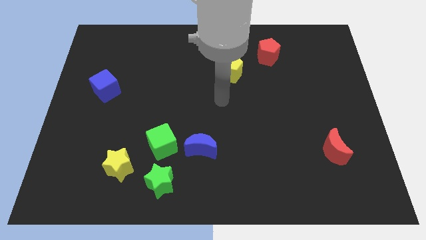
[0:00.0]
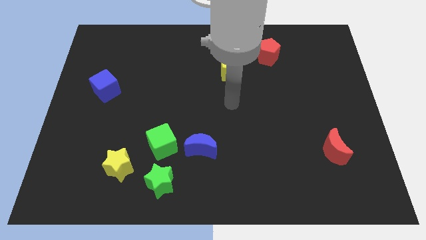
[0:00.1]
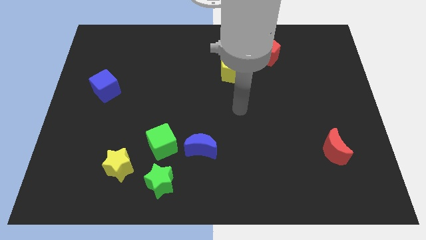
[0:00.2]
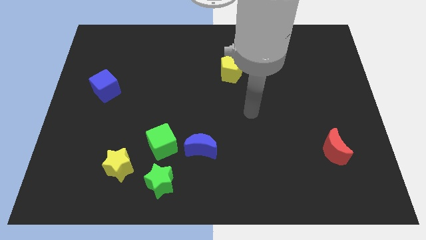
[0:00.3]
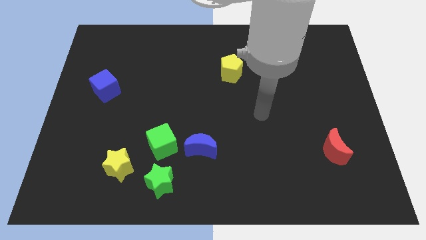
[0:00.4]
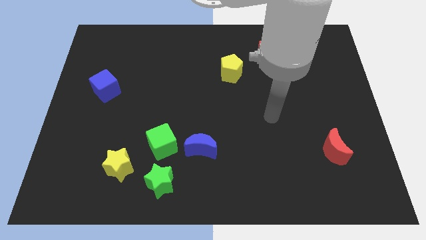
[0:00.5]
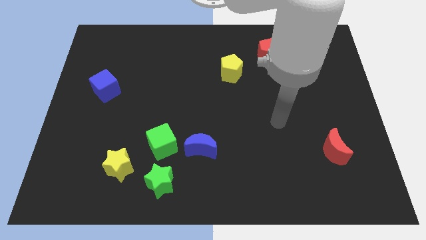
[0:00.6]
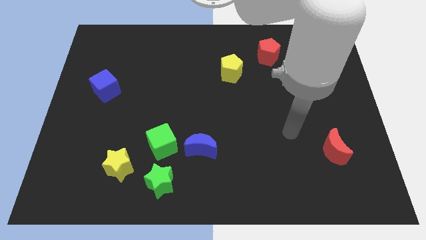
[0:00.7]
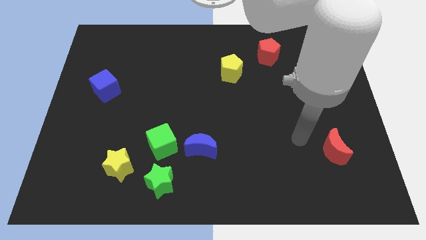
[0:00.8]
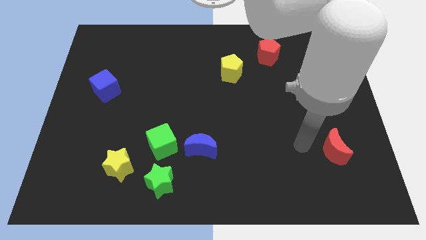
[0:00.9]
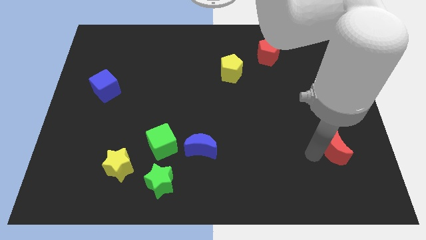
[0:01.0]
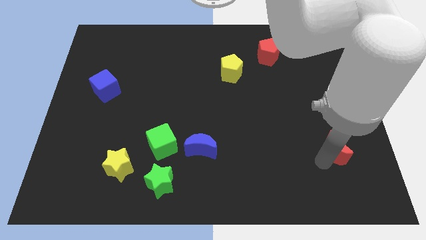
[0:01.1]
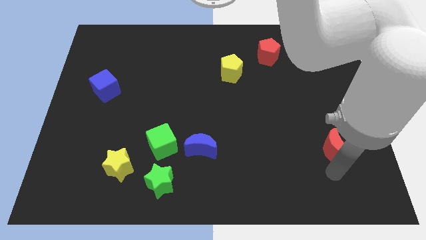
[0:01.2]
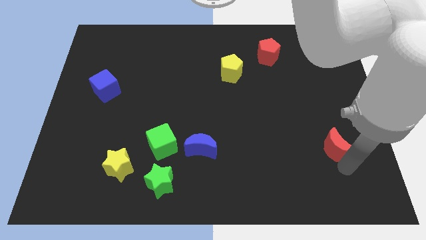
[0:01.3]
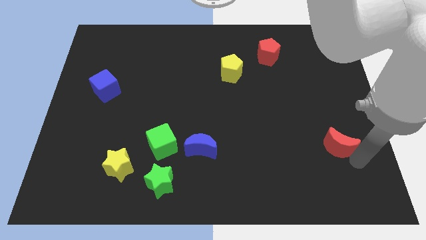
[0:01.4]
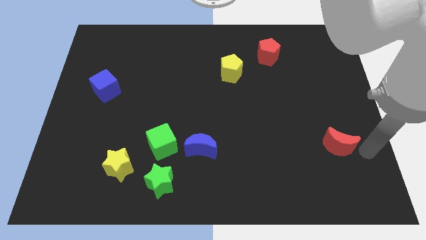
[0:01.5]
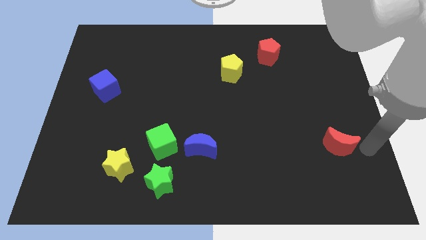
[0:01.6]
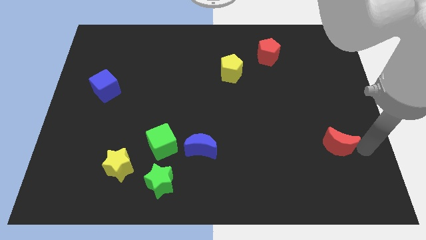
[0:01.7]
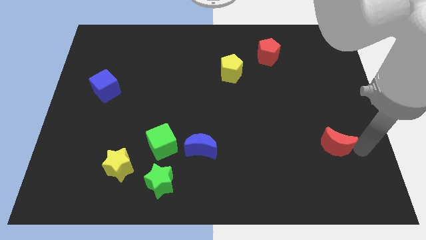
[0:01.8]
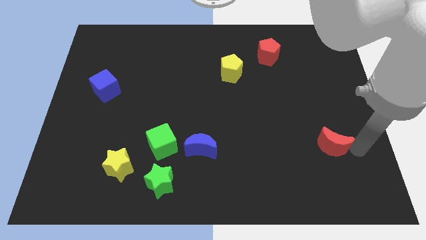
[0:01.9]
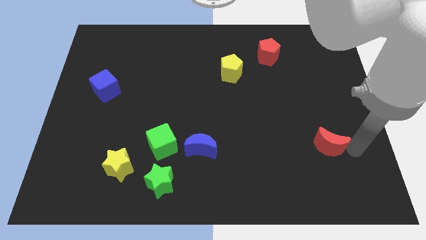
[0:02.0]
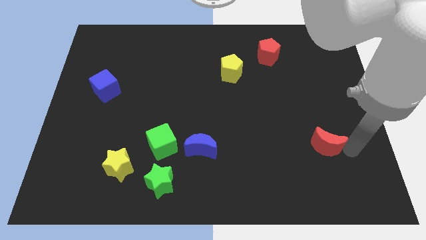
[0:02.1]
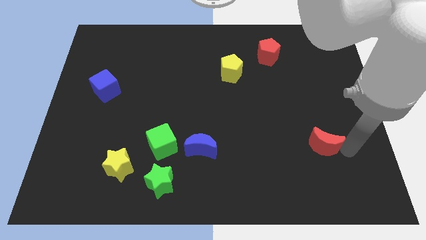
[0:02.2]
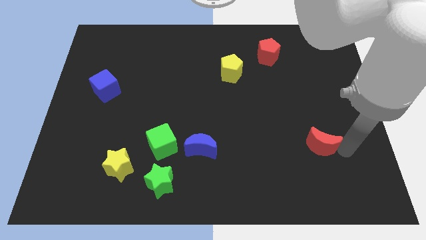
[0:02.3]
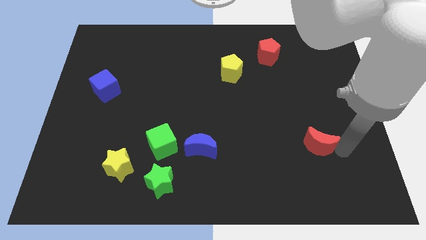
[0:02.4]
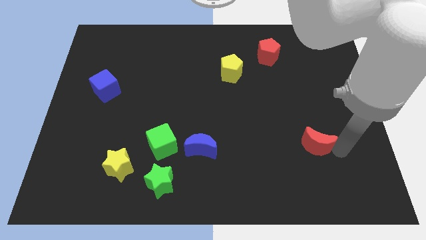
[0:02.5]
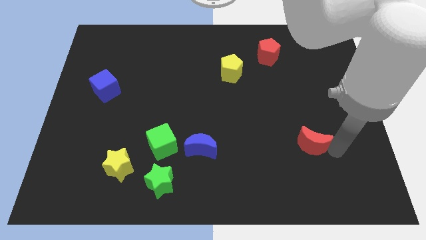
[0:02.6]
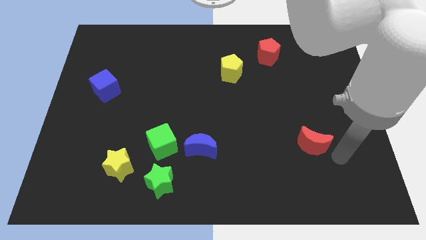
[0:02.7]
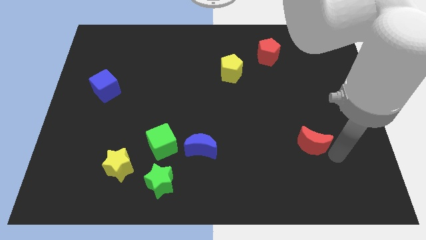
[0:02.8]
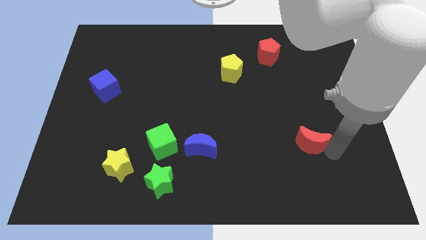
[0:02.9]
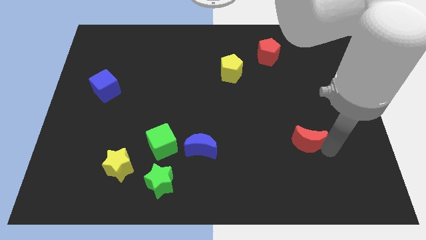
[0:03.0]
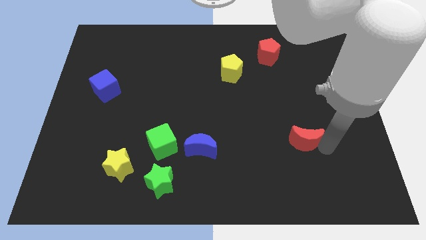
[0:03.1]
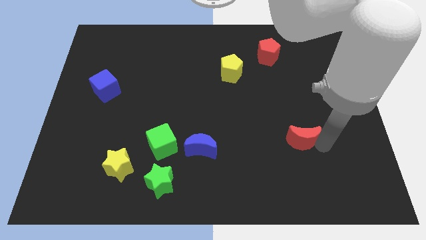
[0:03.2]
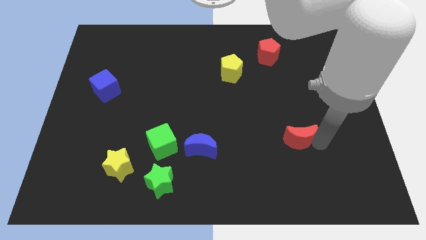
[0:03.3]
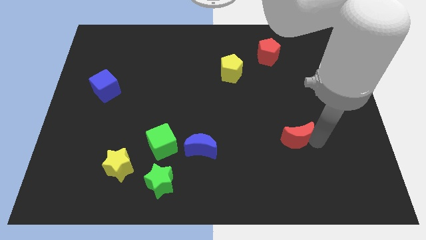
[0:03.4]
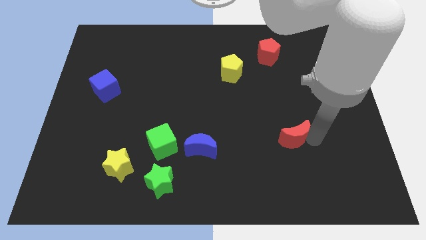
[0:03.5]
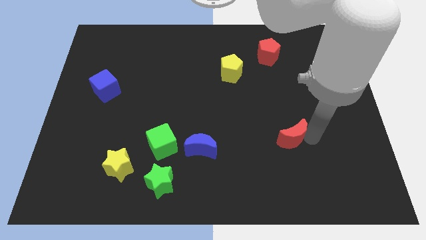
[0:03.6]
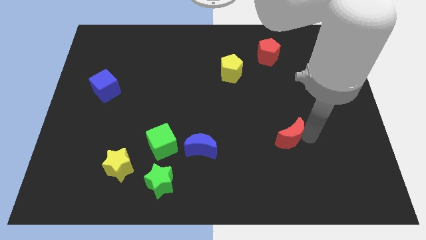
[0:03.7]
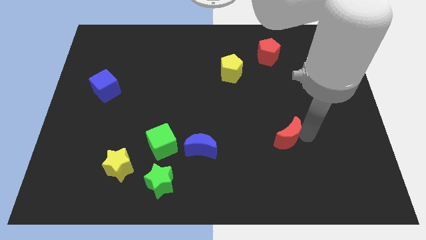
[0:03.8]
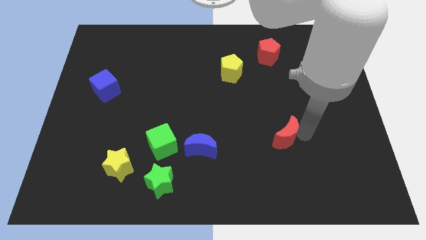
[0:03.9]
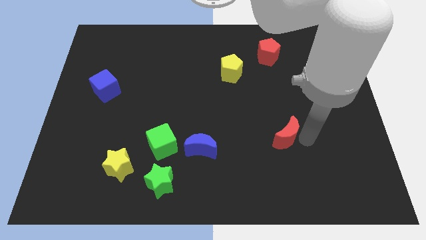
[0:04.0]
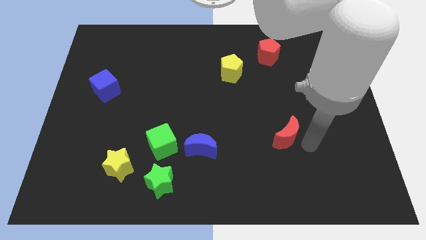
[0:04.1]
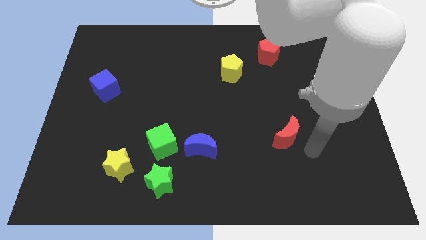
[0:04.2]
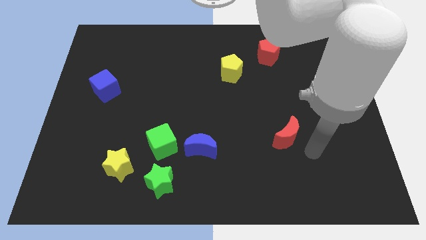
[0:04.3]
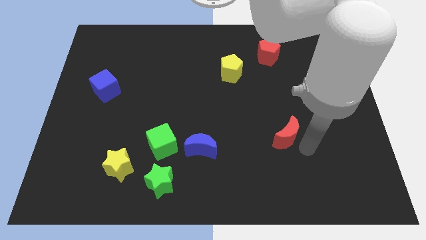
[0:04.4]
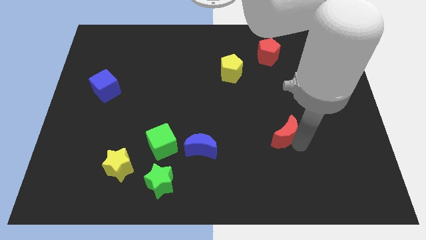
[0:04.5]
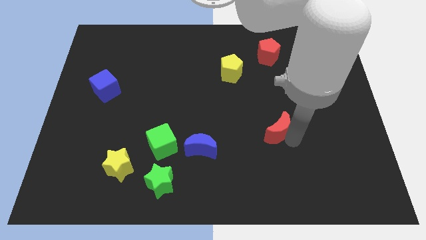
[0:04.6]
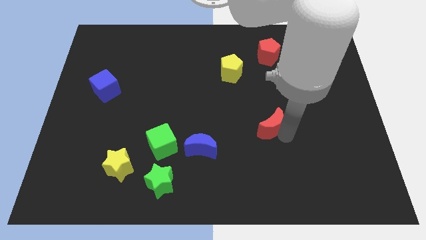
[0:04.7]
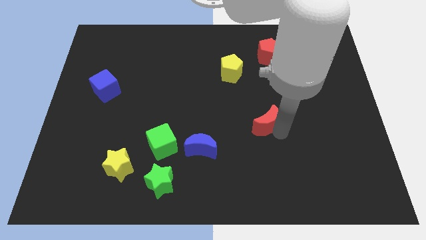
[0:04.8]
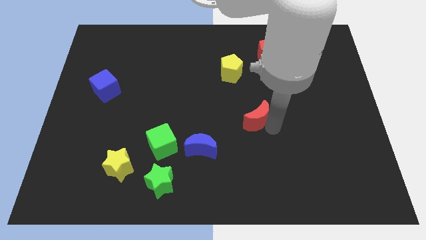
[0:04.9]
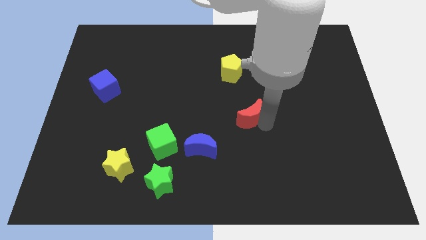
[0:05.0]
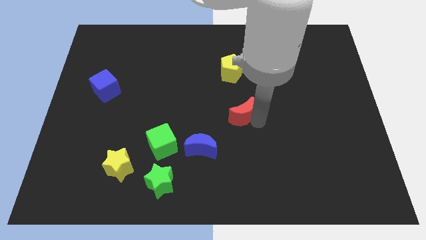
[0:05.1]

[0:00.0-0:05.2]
slide the red moon below the yellow pentagon

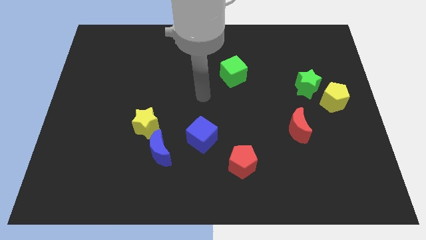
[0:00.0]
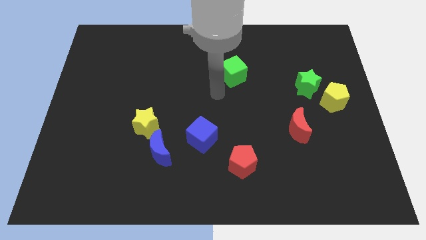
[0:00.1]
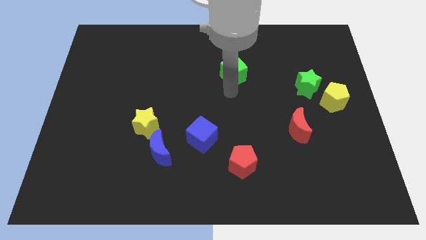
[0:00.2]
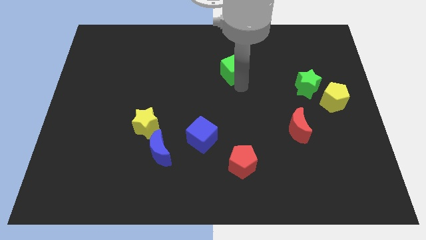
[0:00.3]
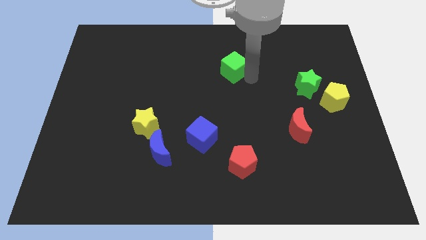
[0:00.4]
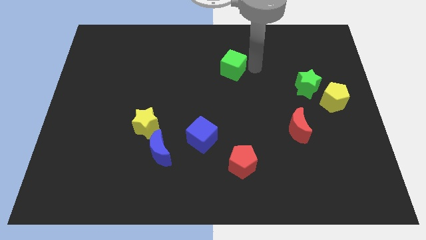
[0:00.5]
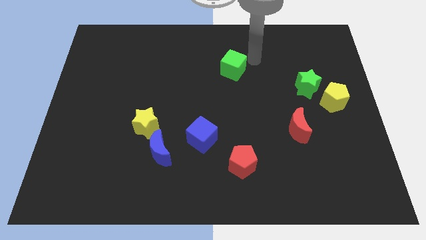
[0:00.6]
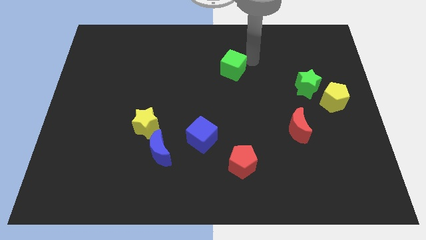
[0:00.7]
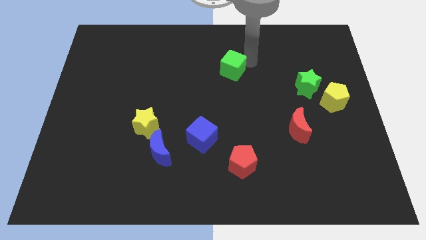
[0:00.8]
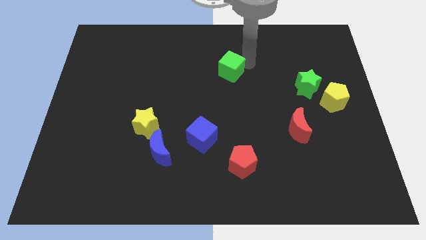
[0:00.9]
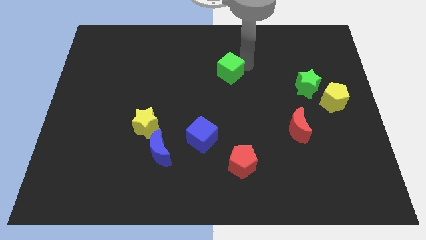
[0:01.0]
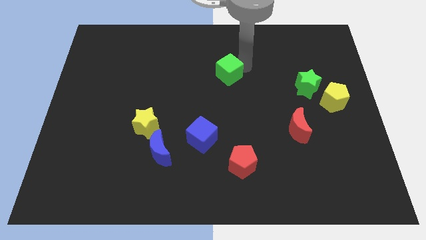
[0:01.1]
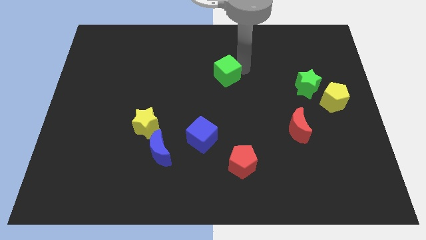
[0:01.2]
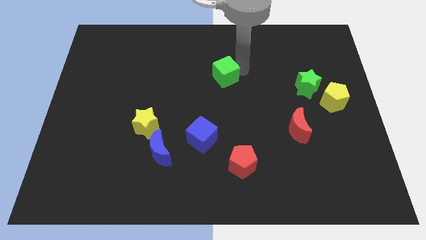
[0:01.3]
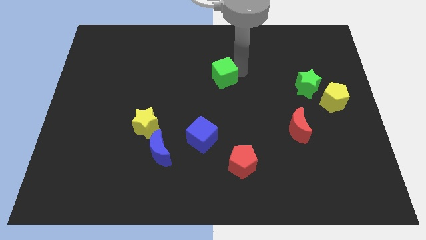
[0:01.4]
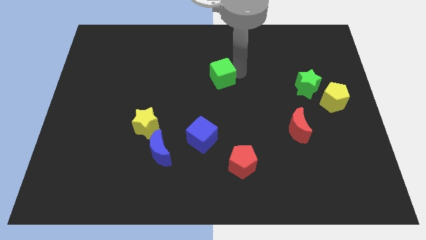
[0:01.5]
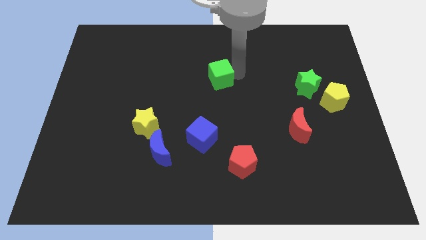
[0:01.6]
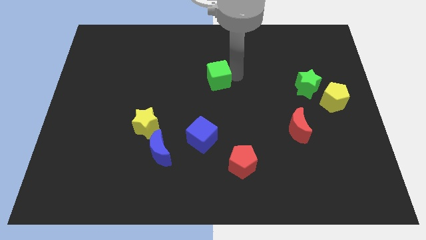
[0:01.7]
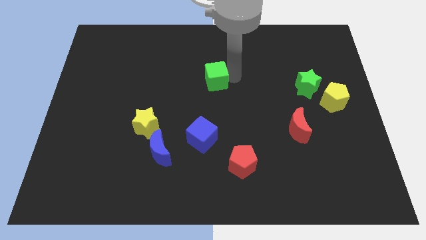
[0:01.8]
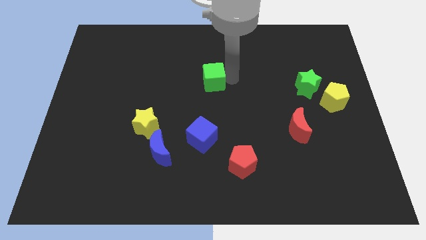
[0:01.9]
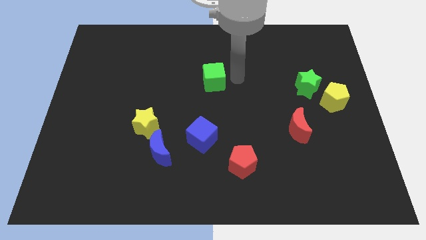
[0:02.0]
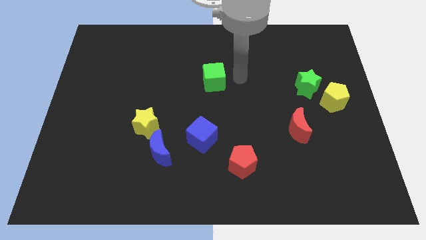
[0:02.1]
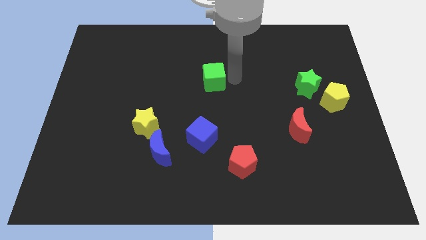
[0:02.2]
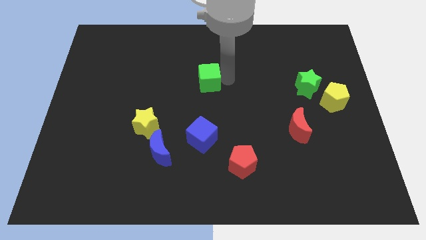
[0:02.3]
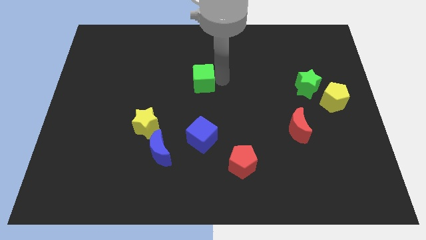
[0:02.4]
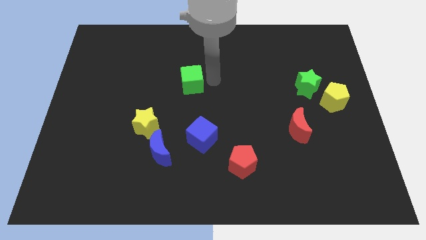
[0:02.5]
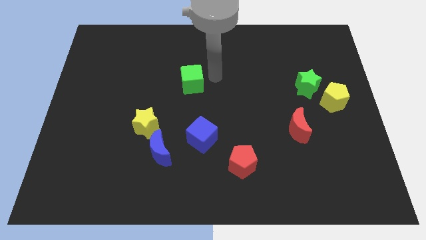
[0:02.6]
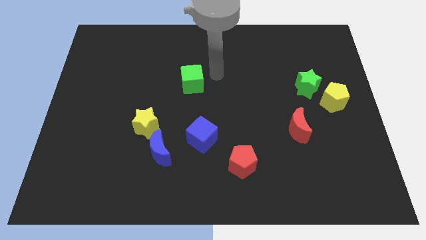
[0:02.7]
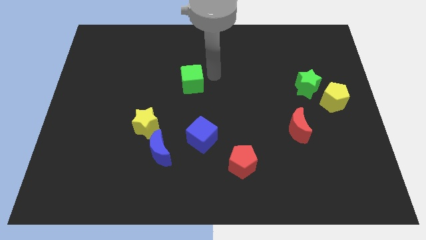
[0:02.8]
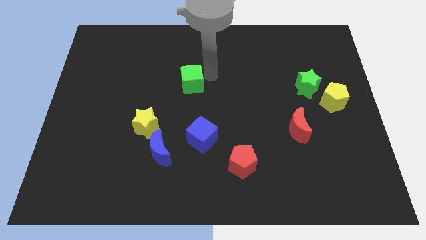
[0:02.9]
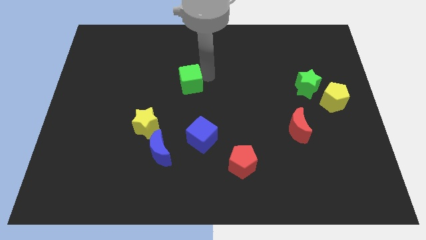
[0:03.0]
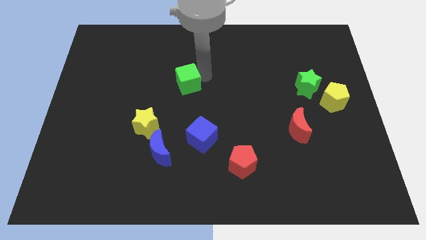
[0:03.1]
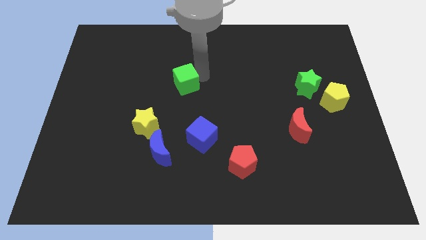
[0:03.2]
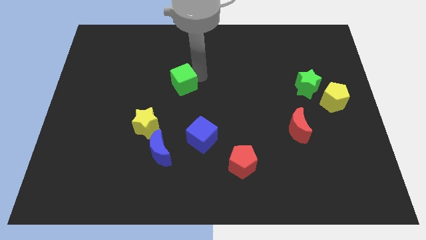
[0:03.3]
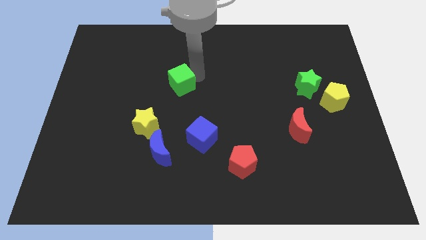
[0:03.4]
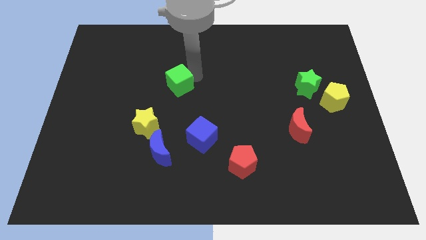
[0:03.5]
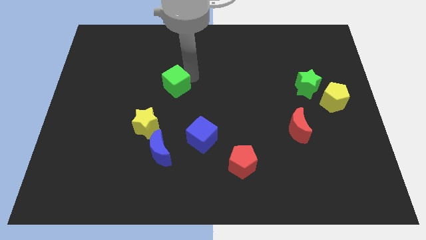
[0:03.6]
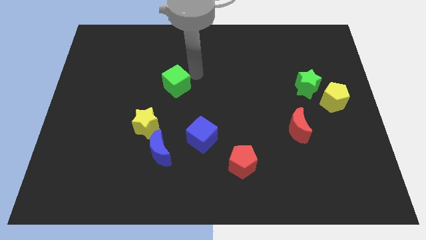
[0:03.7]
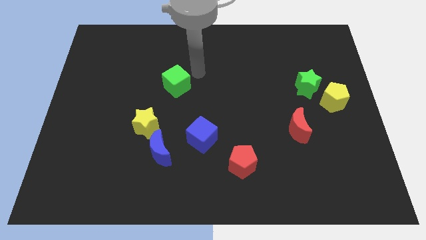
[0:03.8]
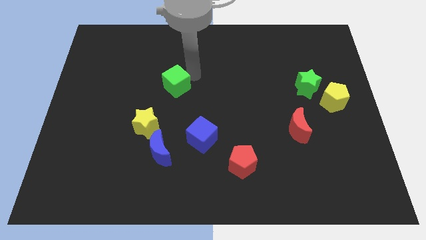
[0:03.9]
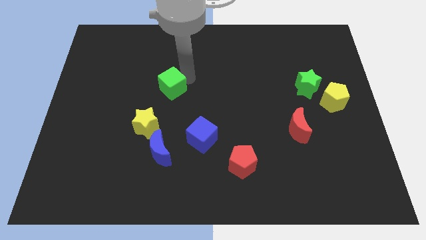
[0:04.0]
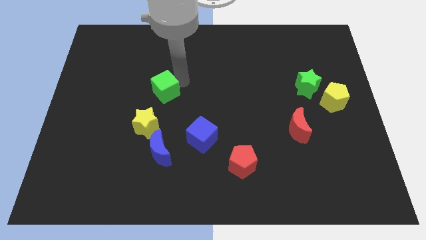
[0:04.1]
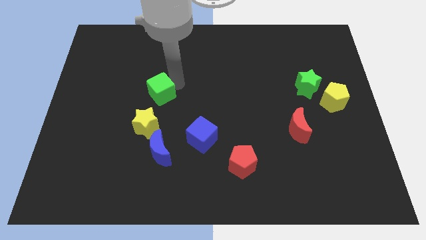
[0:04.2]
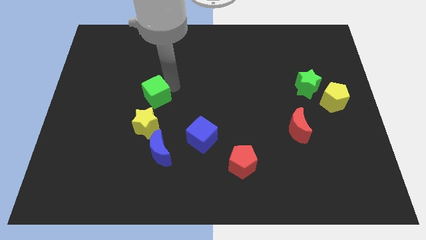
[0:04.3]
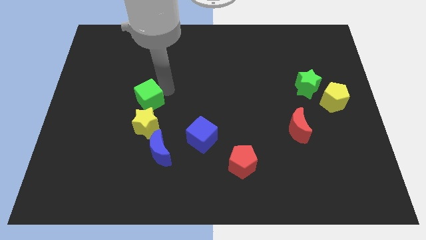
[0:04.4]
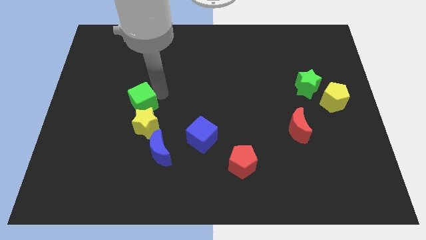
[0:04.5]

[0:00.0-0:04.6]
move the green cube diagonally up and to the left of the yellow star
